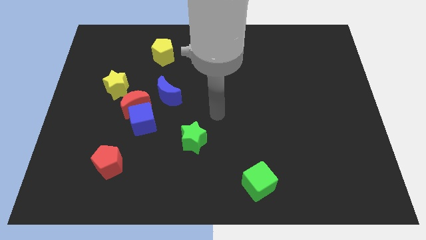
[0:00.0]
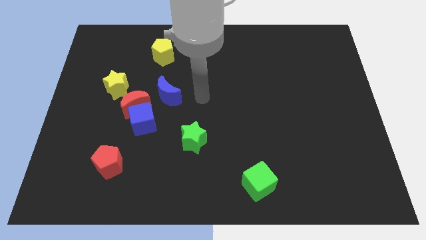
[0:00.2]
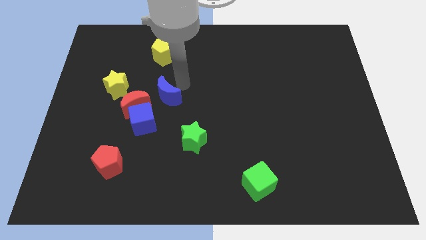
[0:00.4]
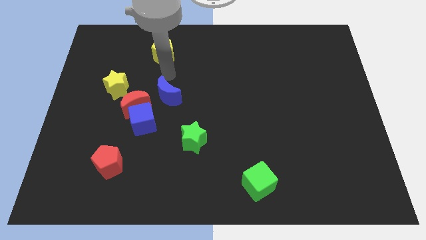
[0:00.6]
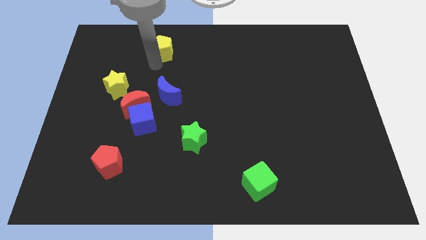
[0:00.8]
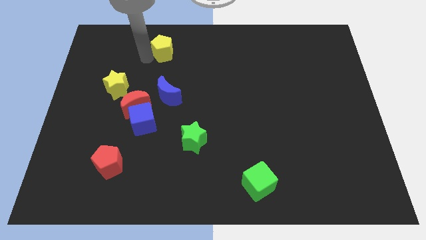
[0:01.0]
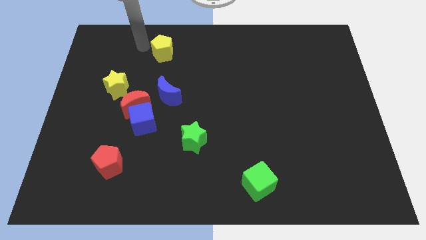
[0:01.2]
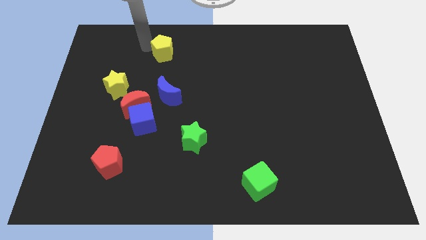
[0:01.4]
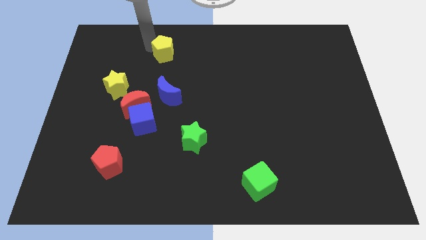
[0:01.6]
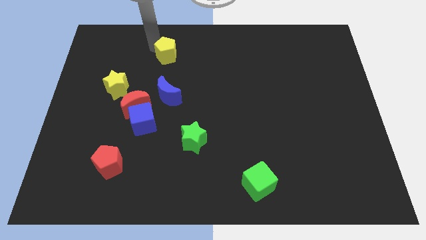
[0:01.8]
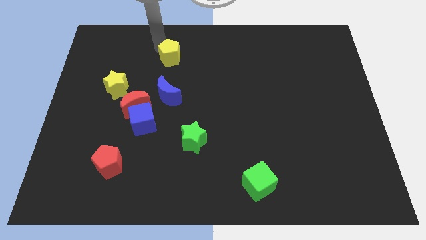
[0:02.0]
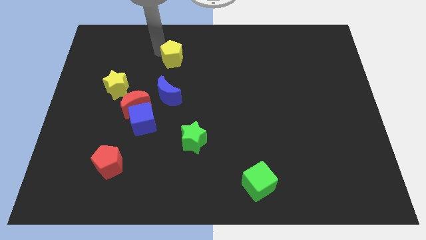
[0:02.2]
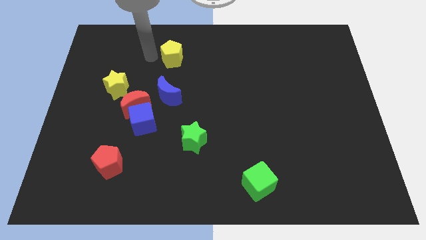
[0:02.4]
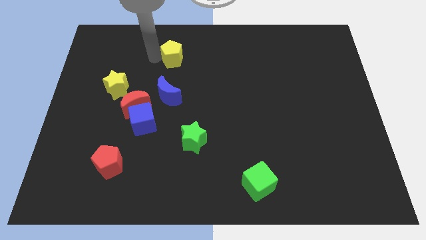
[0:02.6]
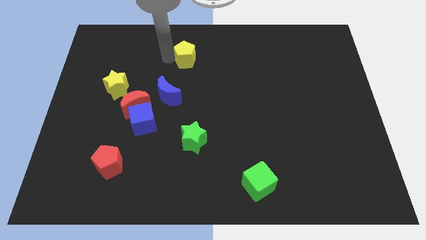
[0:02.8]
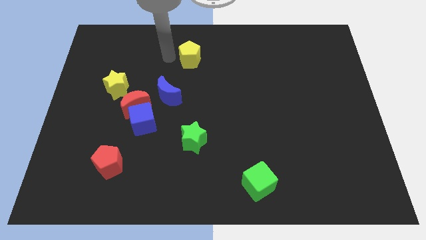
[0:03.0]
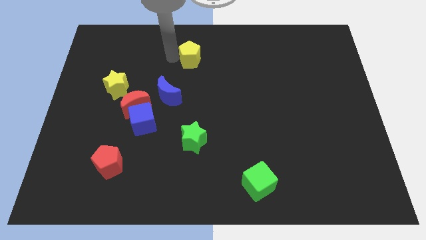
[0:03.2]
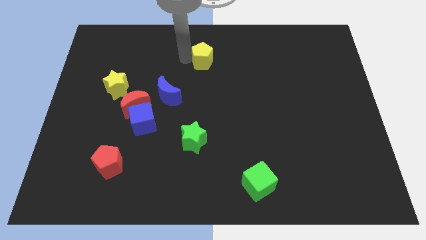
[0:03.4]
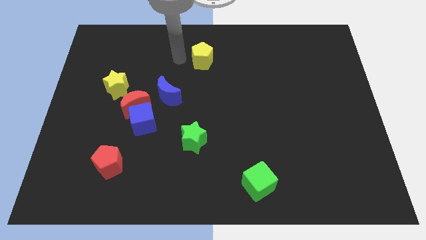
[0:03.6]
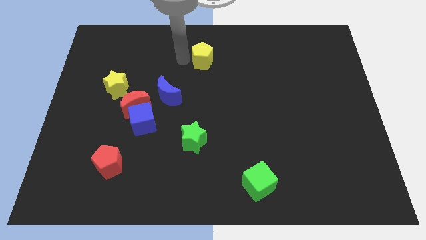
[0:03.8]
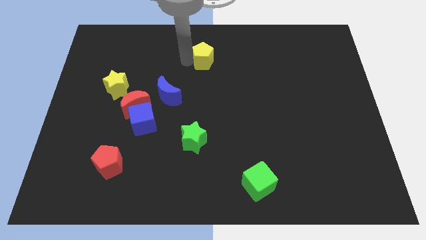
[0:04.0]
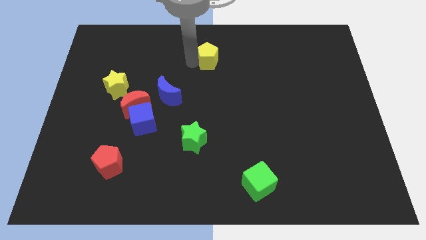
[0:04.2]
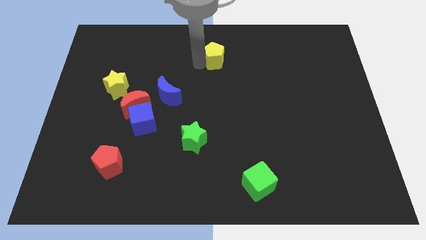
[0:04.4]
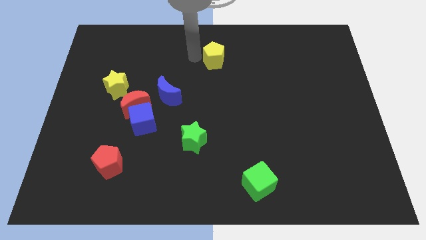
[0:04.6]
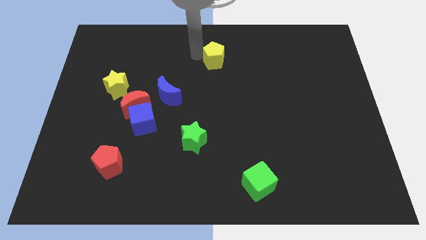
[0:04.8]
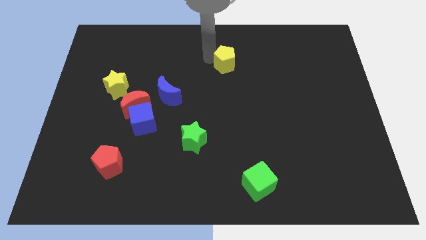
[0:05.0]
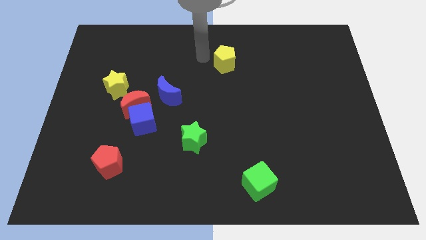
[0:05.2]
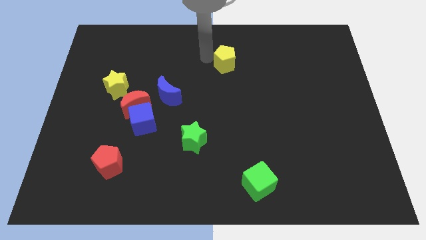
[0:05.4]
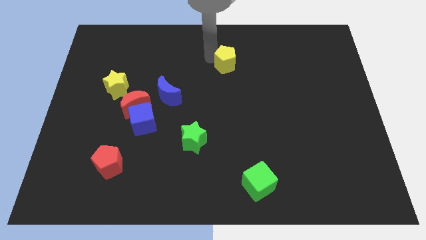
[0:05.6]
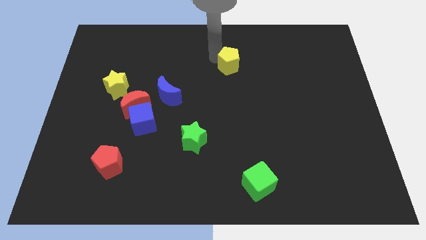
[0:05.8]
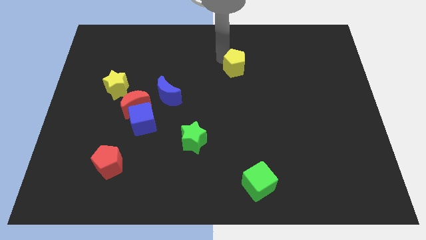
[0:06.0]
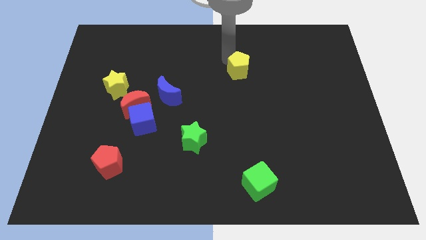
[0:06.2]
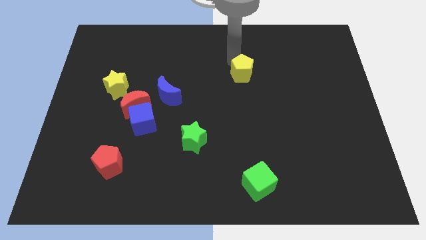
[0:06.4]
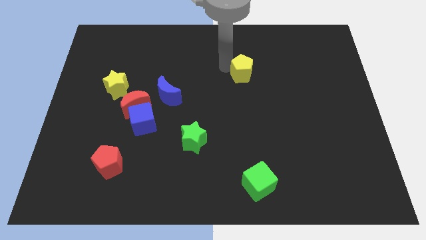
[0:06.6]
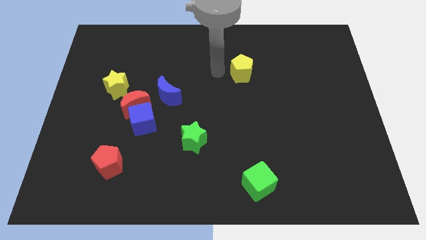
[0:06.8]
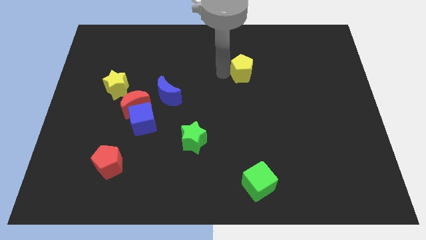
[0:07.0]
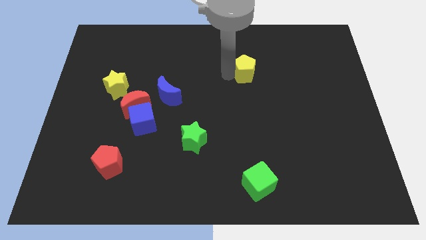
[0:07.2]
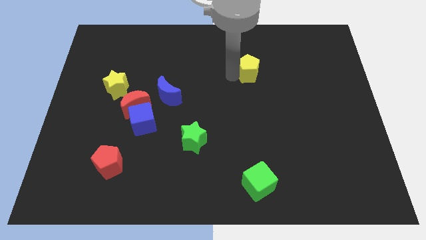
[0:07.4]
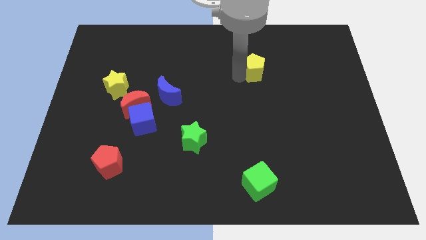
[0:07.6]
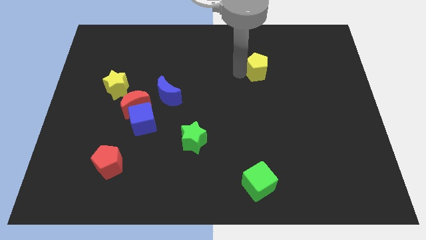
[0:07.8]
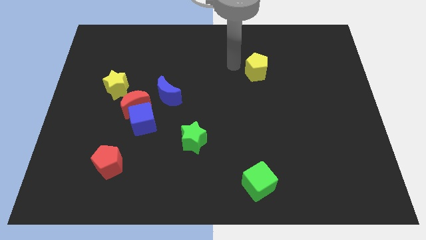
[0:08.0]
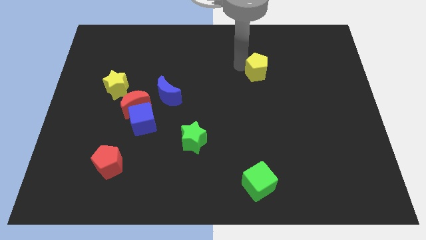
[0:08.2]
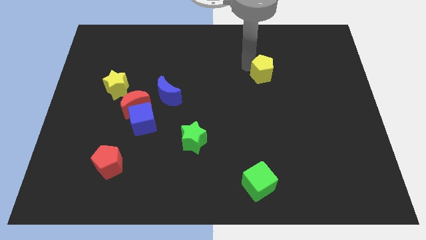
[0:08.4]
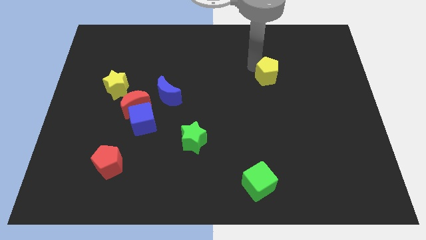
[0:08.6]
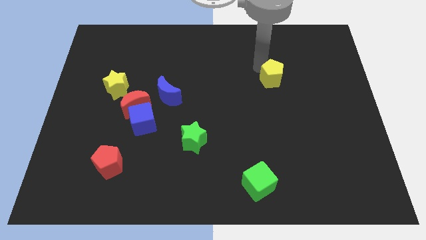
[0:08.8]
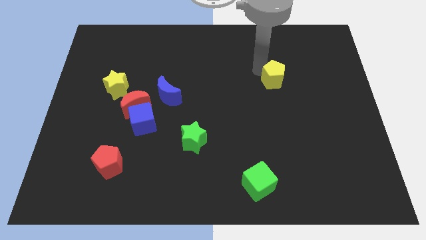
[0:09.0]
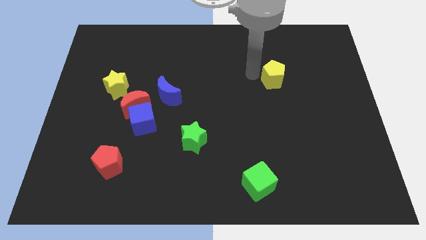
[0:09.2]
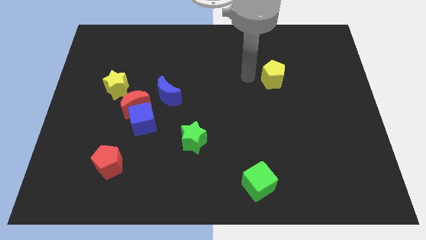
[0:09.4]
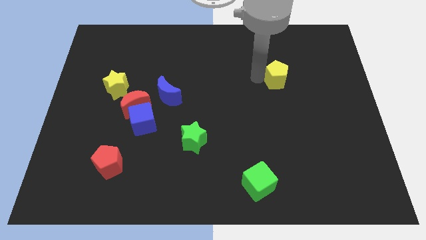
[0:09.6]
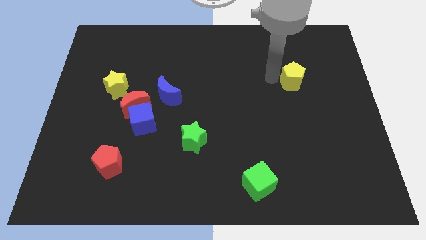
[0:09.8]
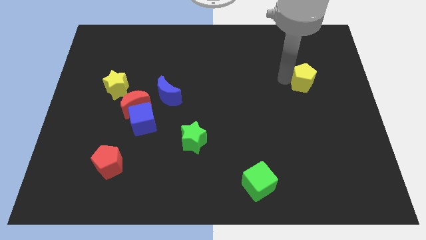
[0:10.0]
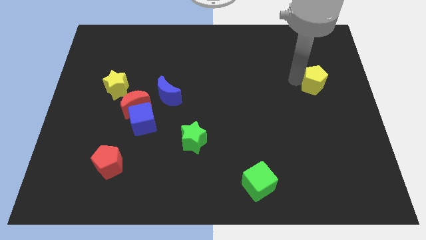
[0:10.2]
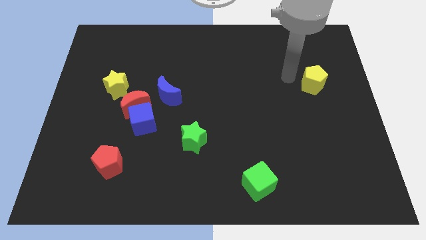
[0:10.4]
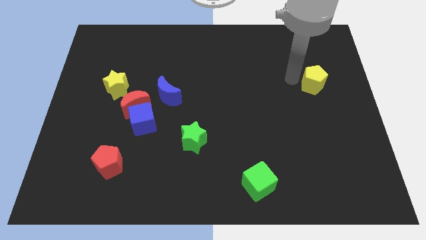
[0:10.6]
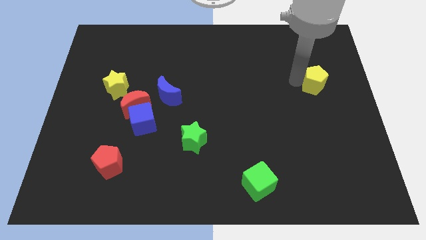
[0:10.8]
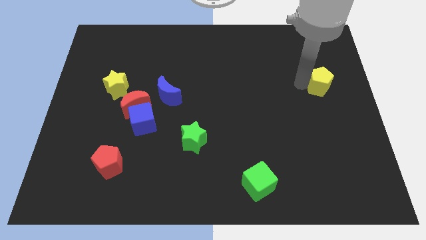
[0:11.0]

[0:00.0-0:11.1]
slide the yellow pentagon to the center right

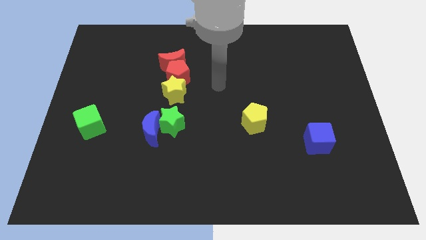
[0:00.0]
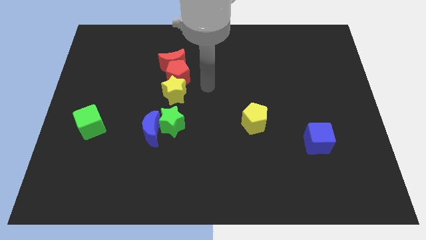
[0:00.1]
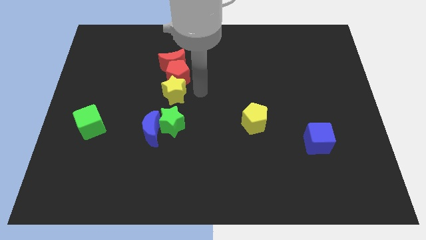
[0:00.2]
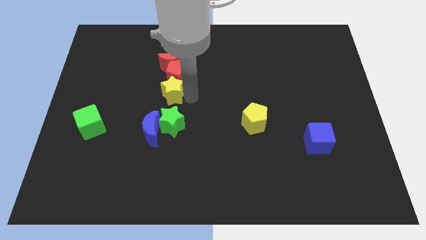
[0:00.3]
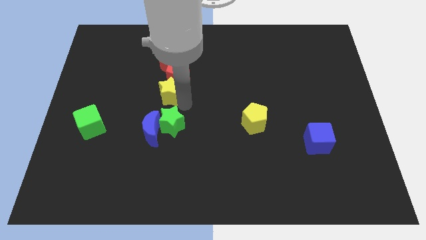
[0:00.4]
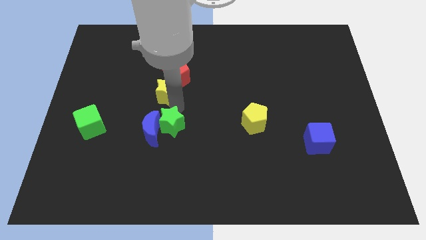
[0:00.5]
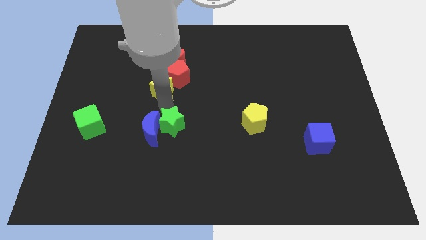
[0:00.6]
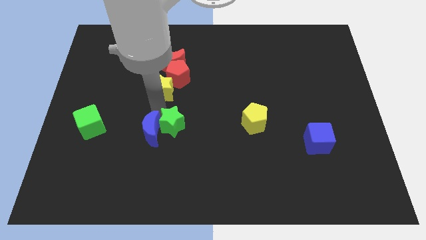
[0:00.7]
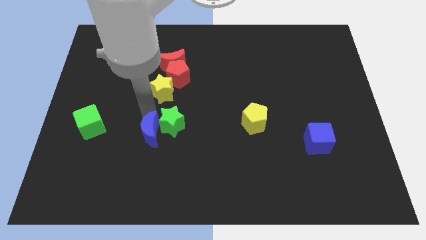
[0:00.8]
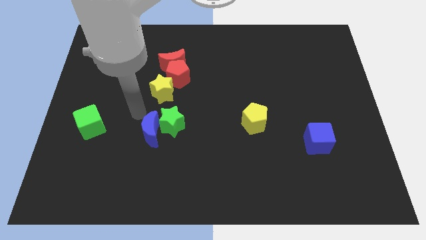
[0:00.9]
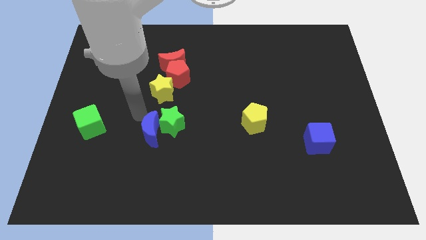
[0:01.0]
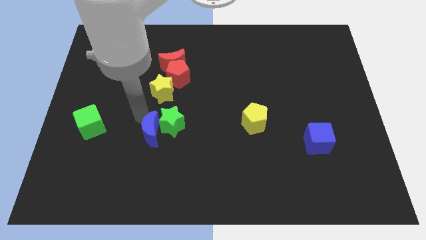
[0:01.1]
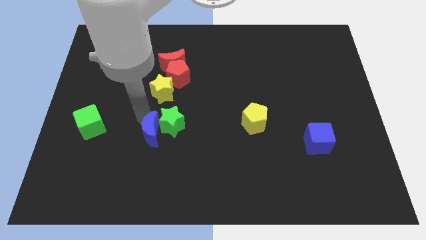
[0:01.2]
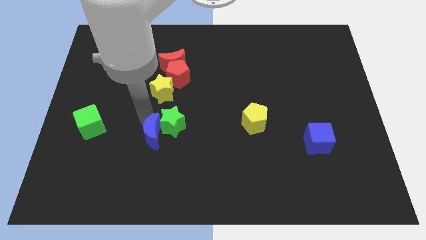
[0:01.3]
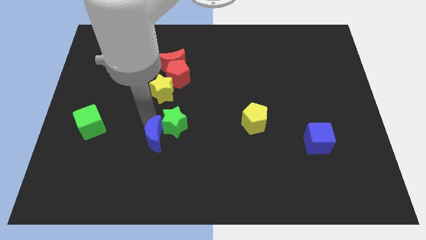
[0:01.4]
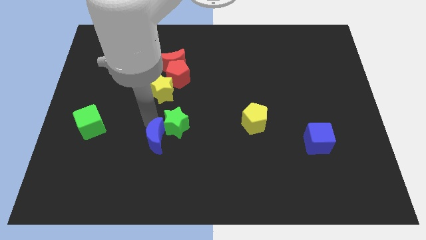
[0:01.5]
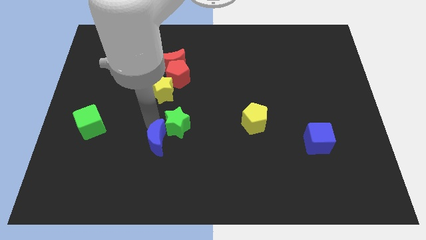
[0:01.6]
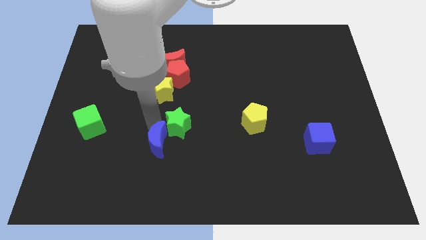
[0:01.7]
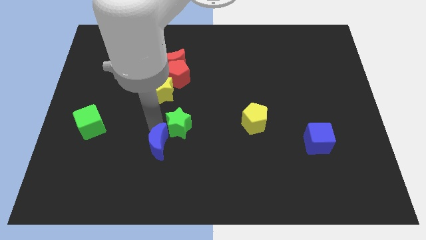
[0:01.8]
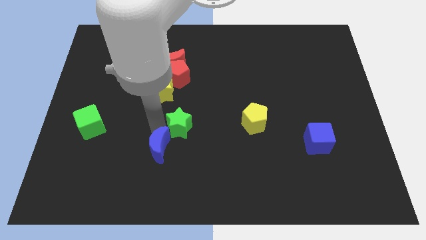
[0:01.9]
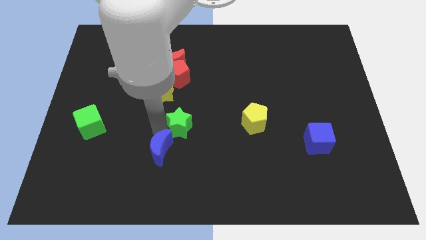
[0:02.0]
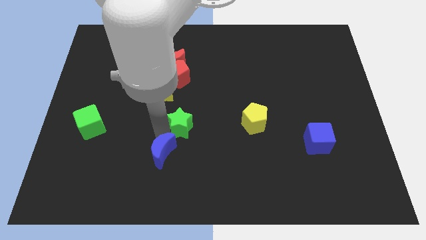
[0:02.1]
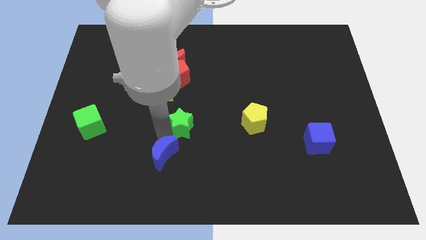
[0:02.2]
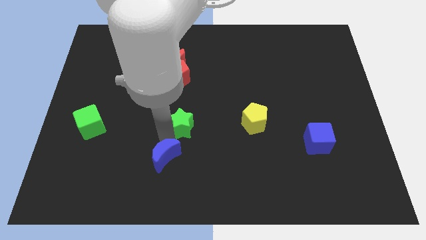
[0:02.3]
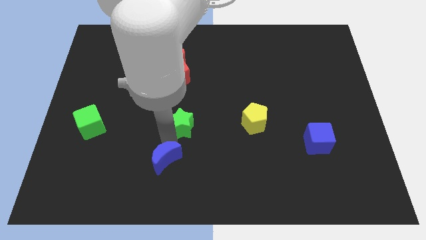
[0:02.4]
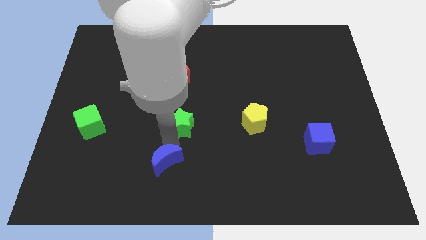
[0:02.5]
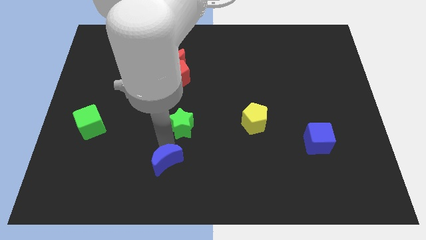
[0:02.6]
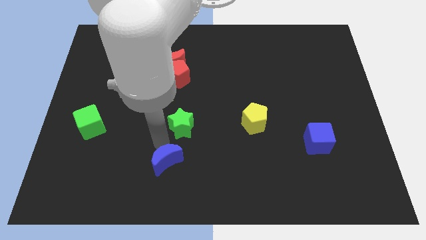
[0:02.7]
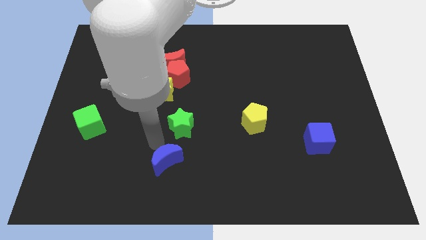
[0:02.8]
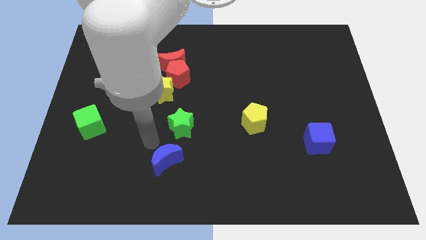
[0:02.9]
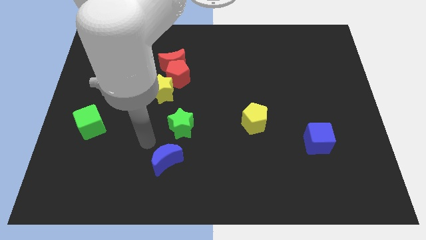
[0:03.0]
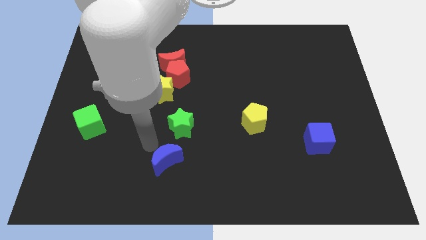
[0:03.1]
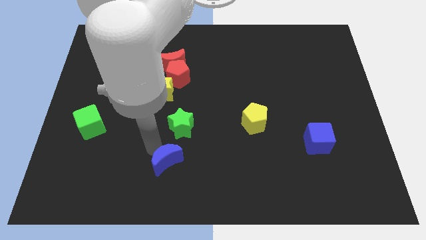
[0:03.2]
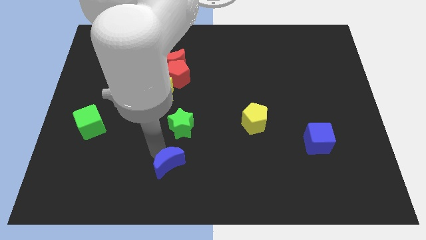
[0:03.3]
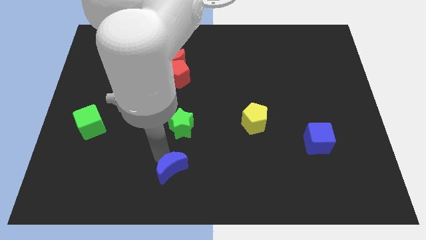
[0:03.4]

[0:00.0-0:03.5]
slide the blue moon to the bottom
